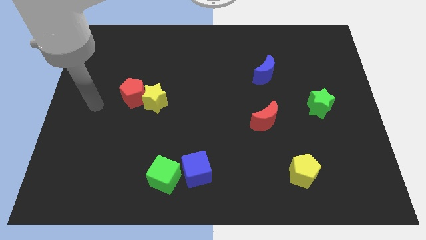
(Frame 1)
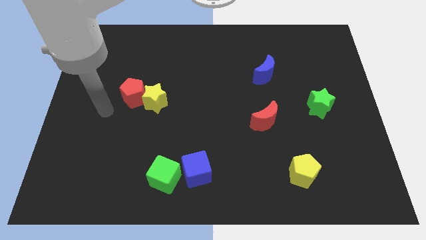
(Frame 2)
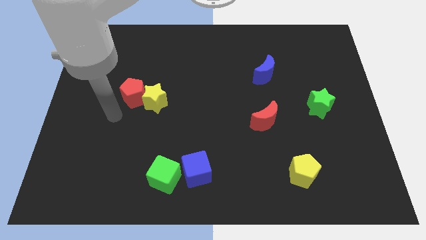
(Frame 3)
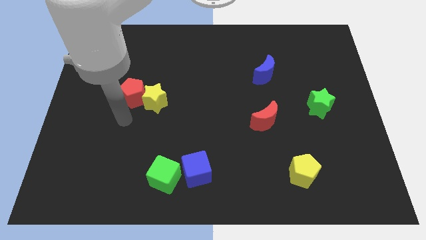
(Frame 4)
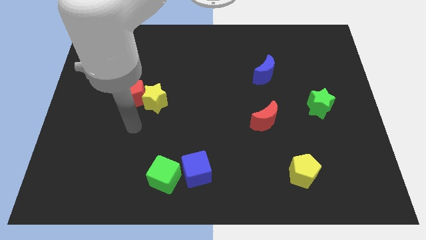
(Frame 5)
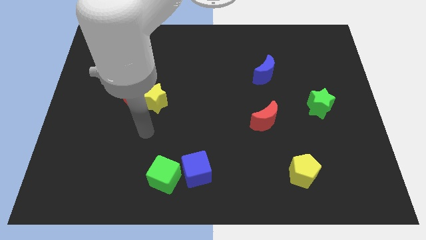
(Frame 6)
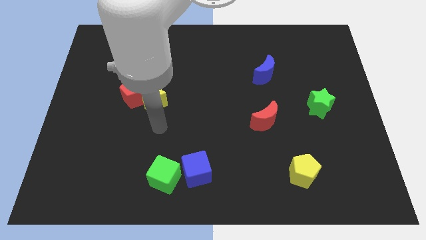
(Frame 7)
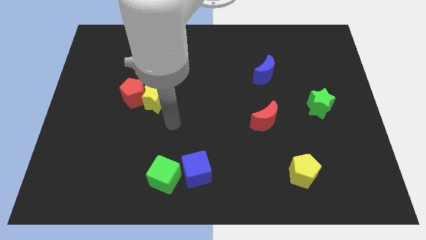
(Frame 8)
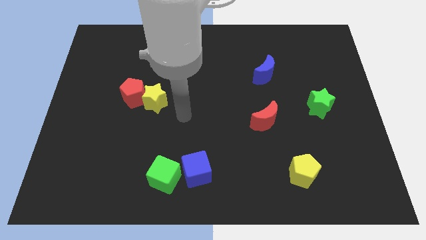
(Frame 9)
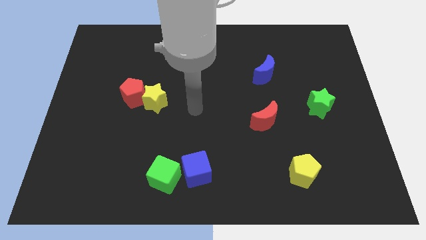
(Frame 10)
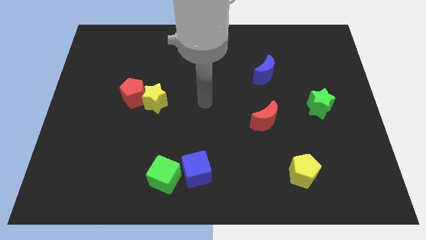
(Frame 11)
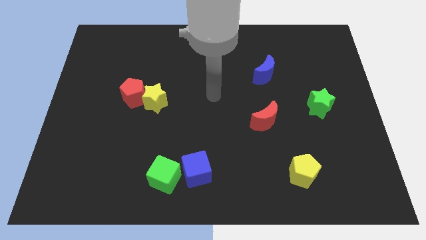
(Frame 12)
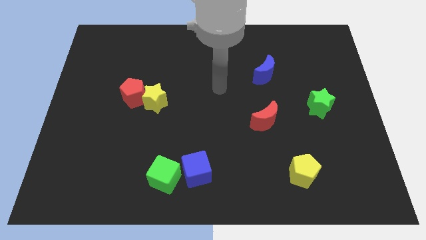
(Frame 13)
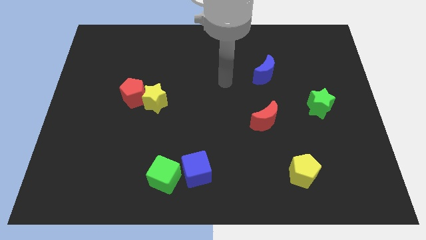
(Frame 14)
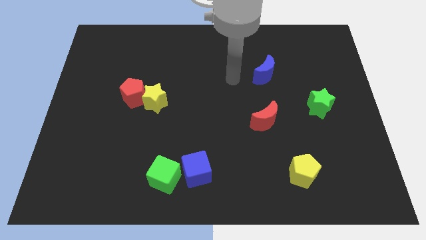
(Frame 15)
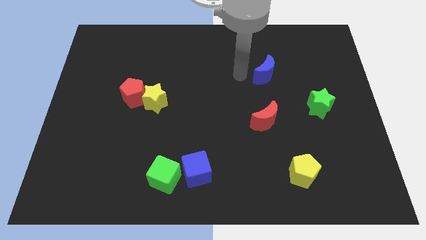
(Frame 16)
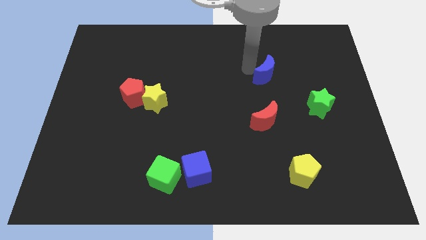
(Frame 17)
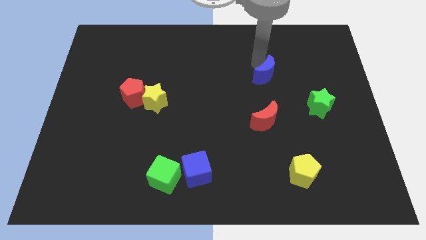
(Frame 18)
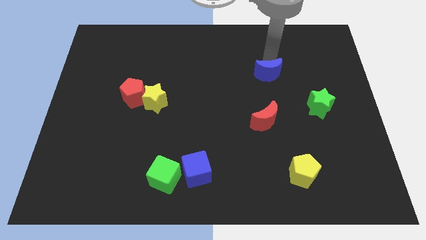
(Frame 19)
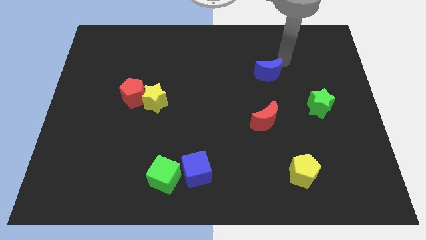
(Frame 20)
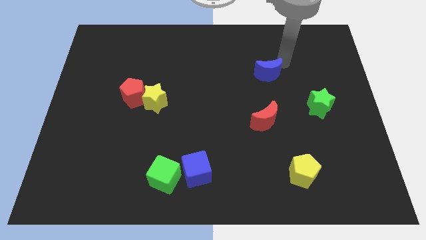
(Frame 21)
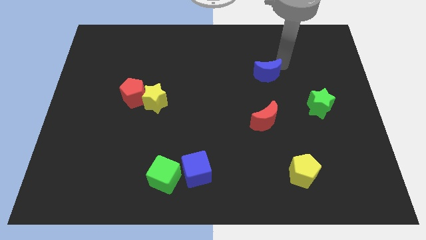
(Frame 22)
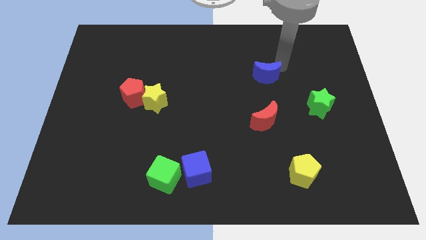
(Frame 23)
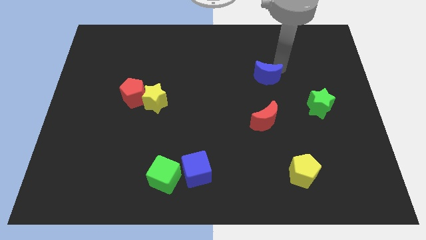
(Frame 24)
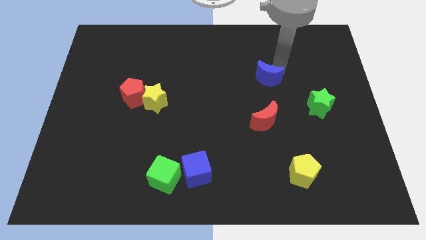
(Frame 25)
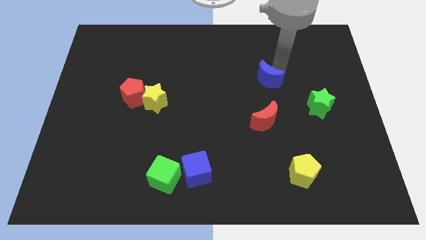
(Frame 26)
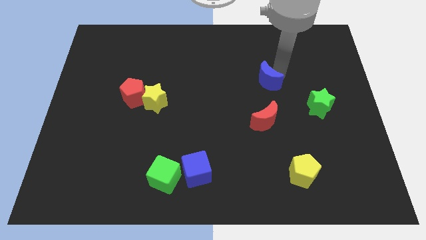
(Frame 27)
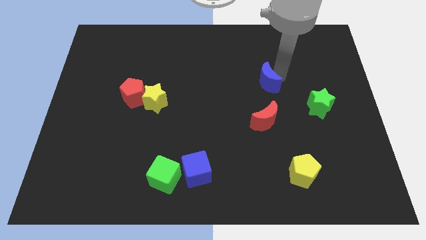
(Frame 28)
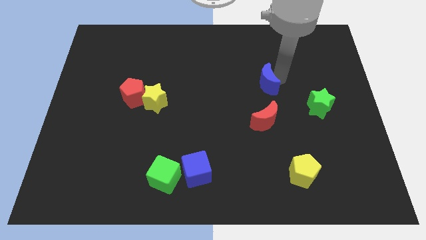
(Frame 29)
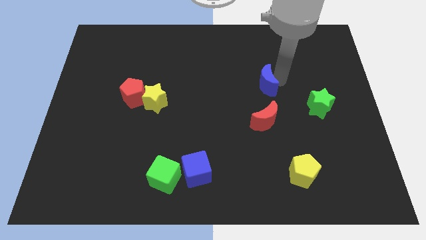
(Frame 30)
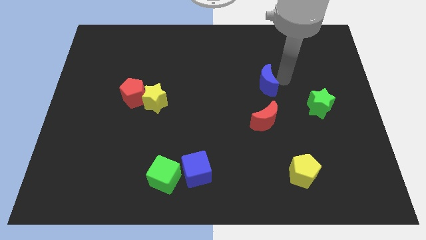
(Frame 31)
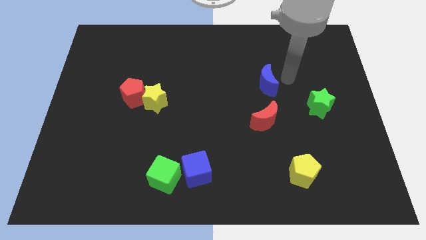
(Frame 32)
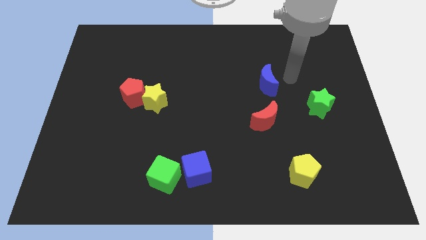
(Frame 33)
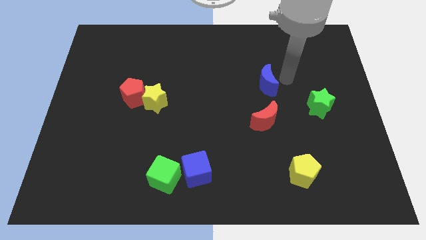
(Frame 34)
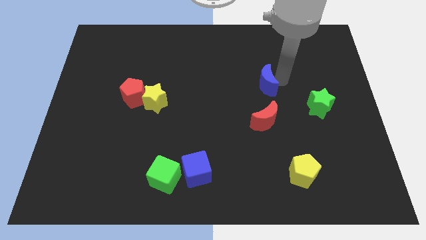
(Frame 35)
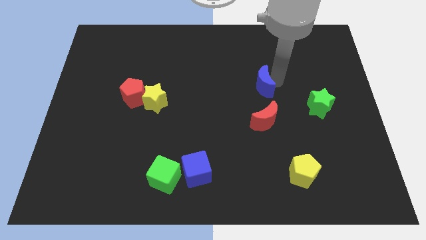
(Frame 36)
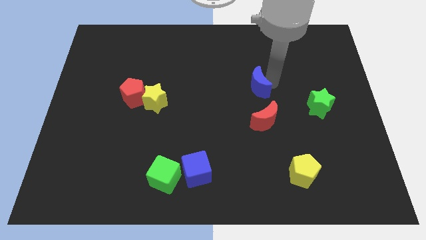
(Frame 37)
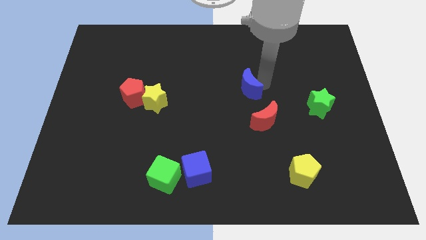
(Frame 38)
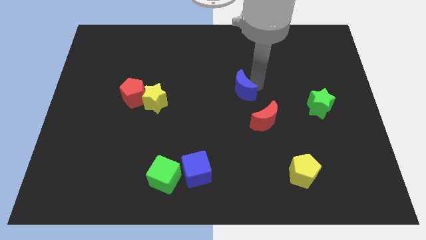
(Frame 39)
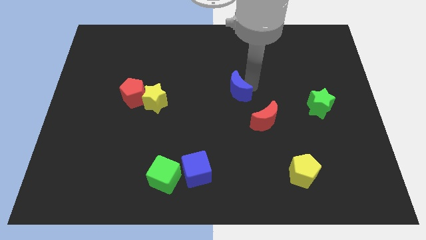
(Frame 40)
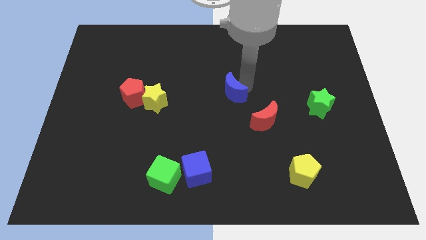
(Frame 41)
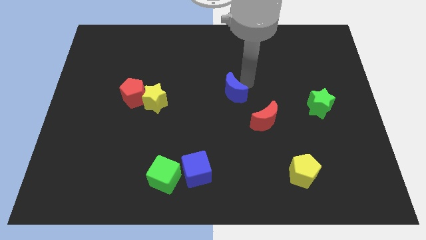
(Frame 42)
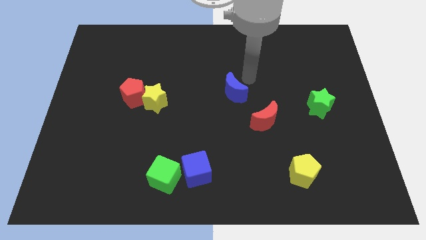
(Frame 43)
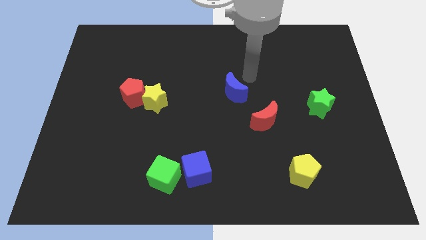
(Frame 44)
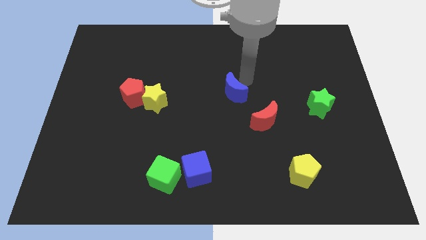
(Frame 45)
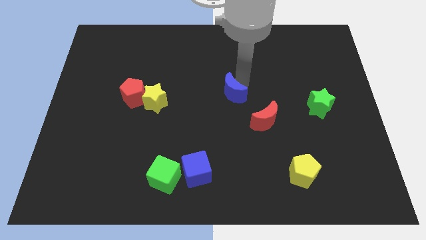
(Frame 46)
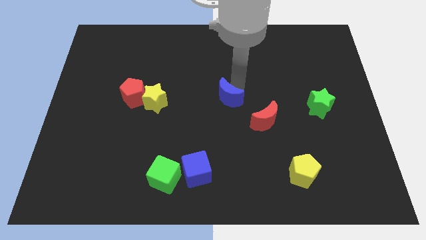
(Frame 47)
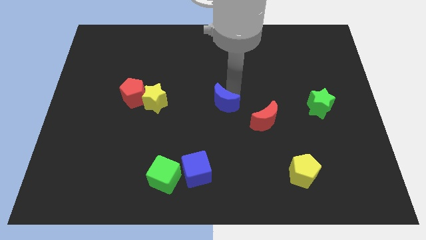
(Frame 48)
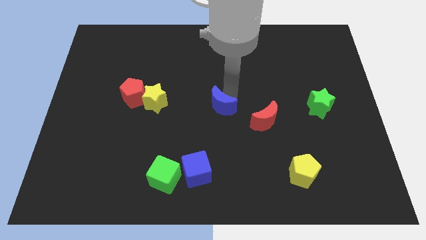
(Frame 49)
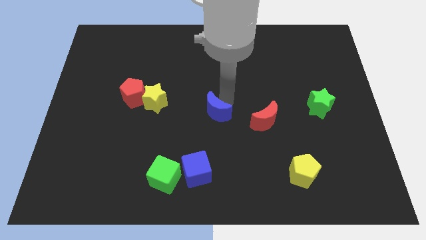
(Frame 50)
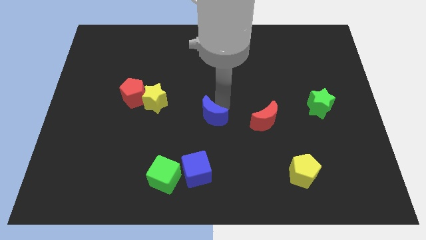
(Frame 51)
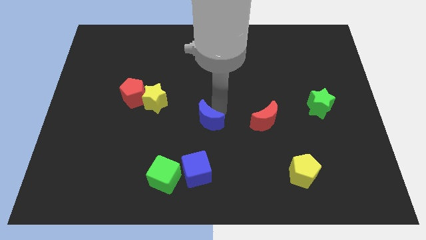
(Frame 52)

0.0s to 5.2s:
slide the blue moon downwards and then to the left

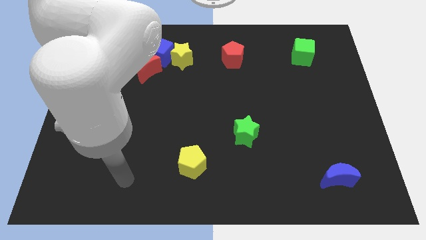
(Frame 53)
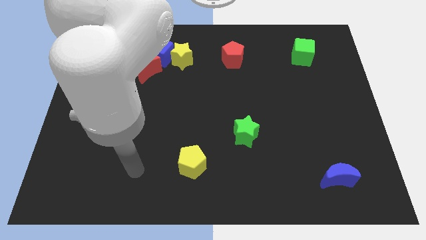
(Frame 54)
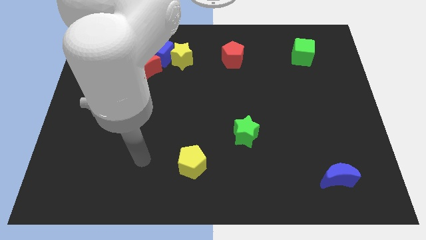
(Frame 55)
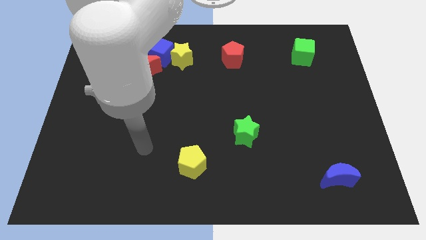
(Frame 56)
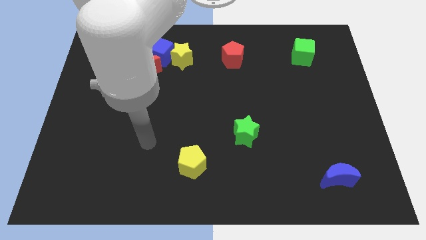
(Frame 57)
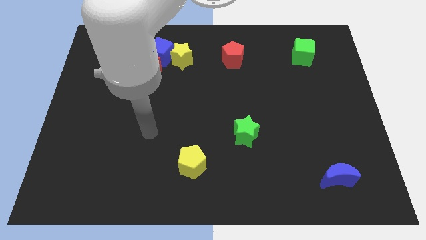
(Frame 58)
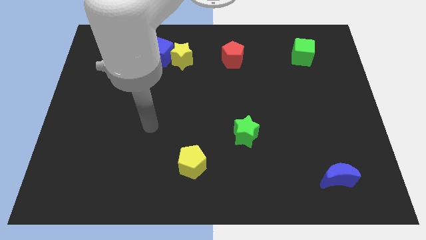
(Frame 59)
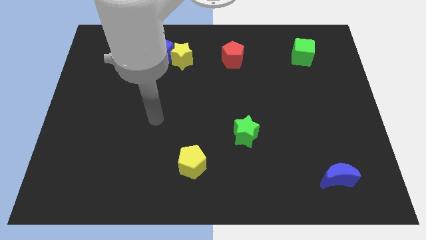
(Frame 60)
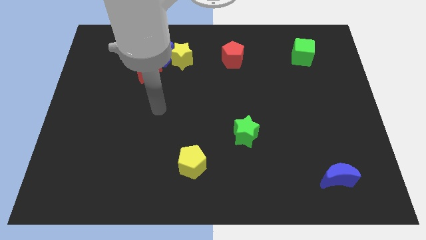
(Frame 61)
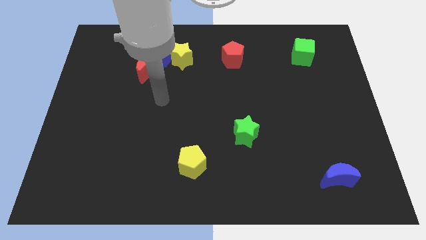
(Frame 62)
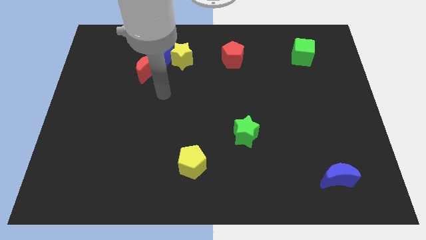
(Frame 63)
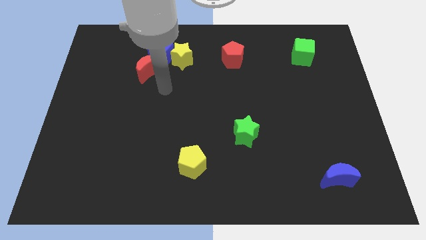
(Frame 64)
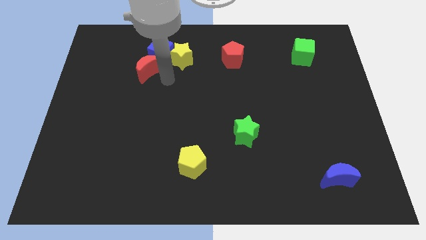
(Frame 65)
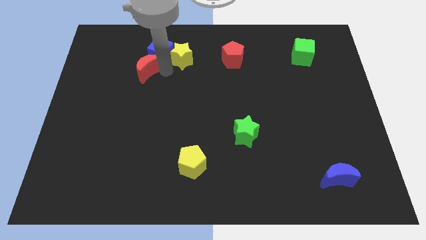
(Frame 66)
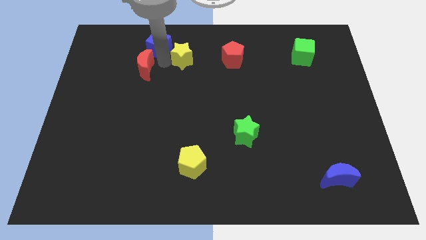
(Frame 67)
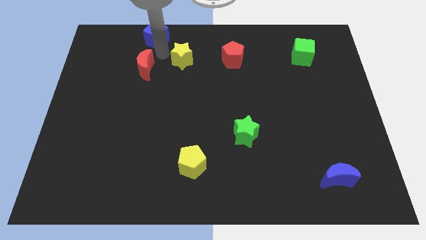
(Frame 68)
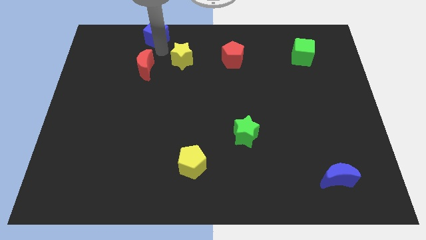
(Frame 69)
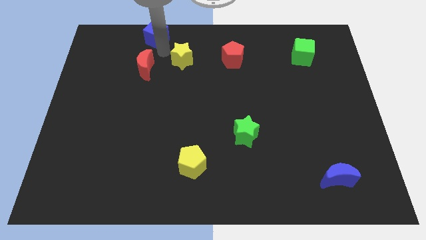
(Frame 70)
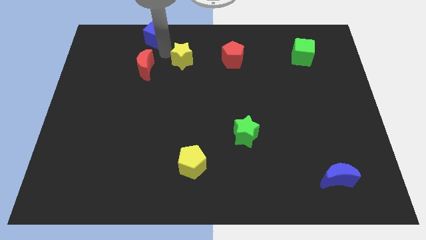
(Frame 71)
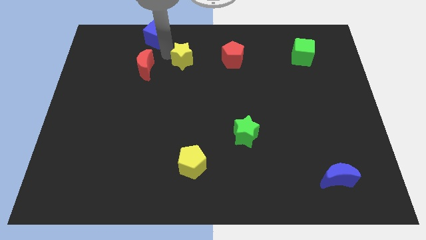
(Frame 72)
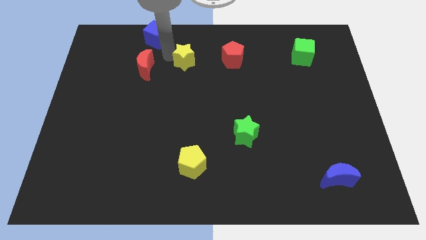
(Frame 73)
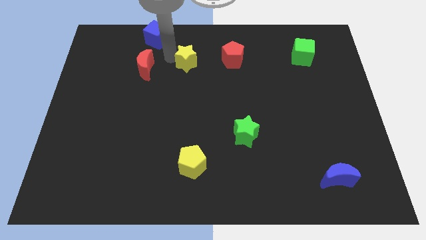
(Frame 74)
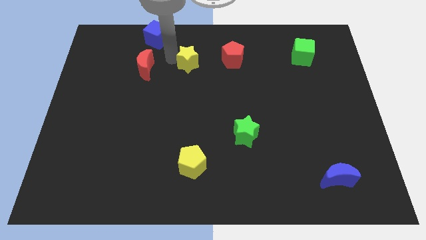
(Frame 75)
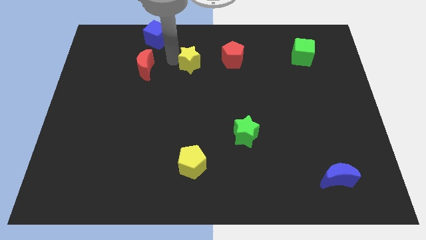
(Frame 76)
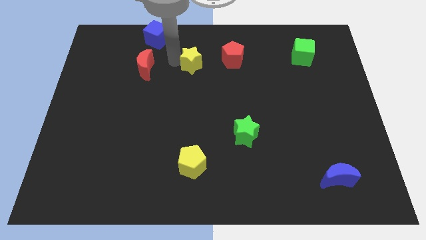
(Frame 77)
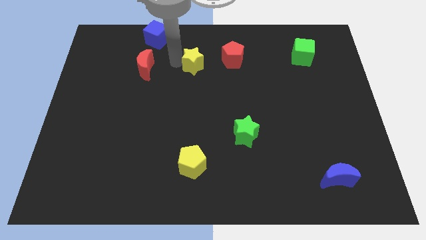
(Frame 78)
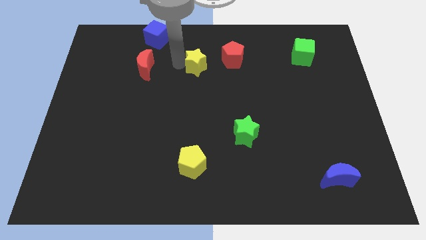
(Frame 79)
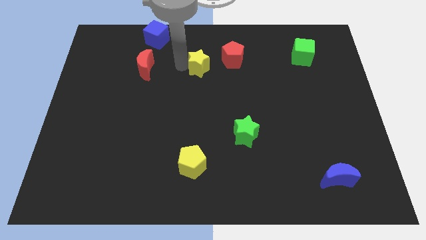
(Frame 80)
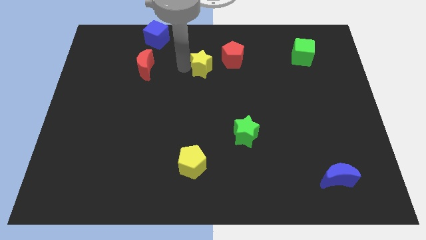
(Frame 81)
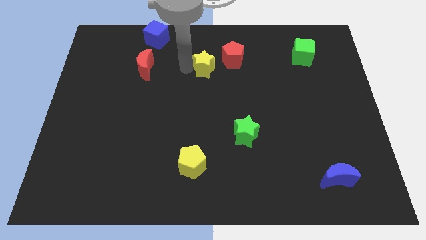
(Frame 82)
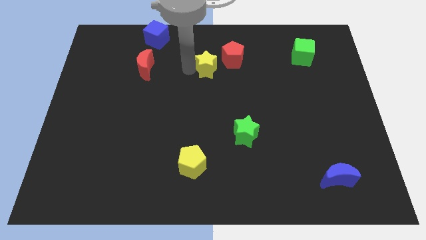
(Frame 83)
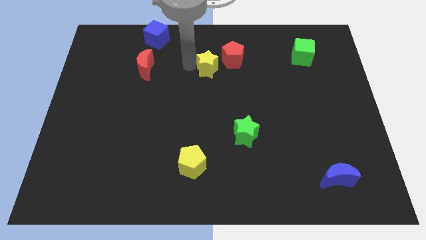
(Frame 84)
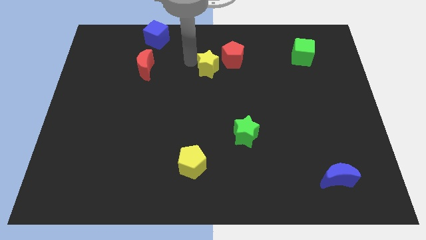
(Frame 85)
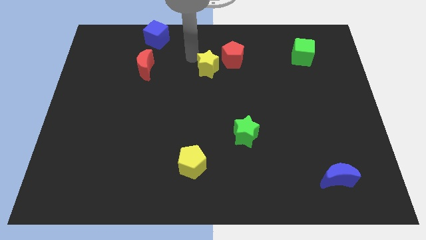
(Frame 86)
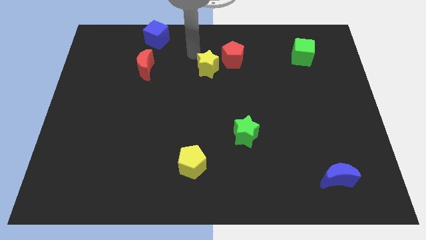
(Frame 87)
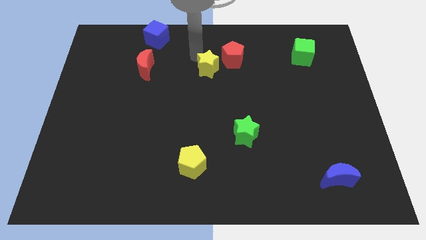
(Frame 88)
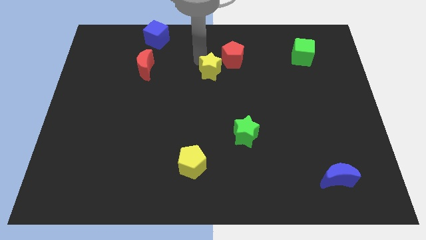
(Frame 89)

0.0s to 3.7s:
push the yellow star right a bit
